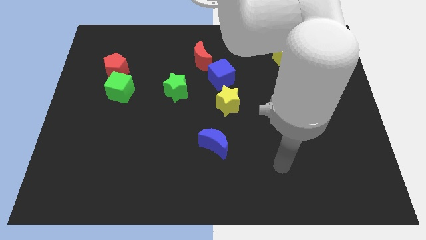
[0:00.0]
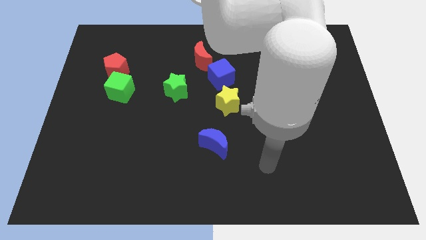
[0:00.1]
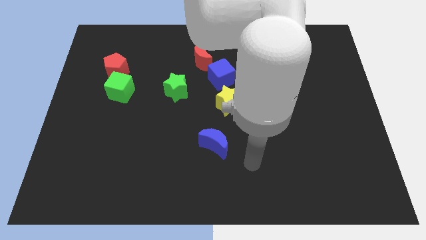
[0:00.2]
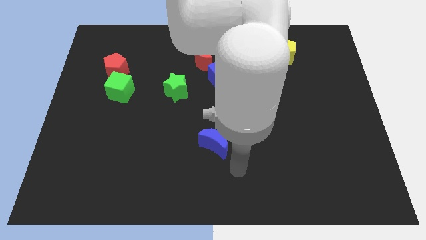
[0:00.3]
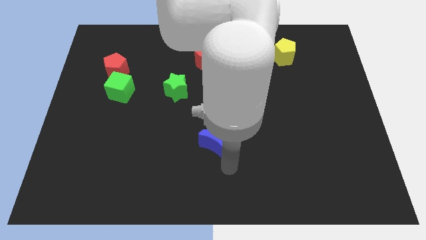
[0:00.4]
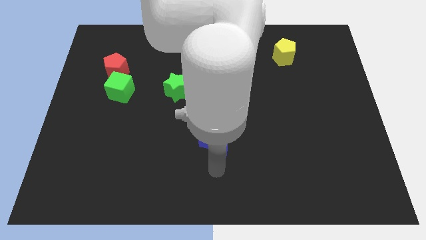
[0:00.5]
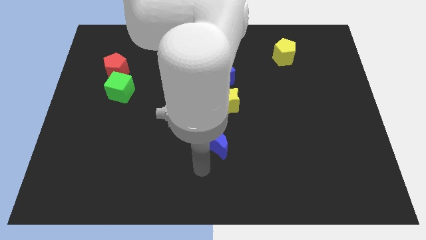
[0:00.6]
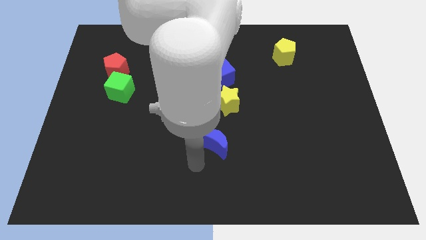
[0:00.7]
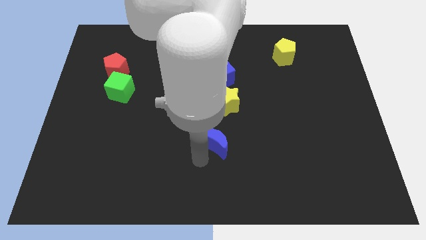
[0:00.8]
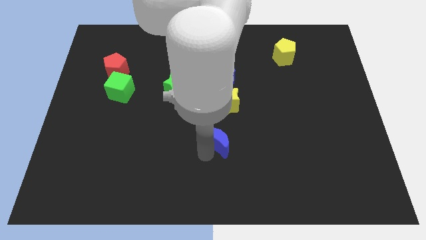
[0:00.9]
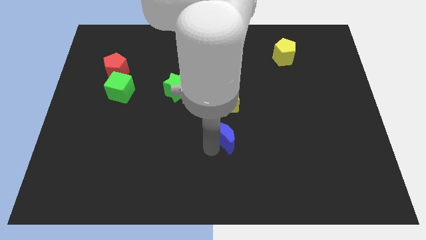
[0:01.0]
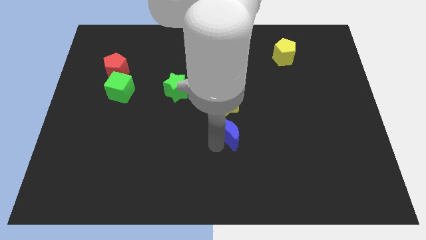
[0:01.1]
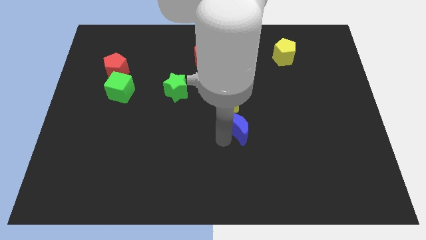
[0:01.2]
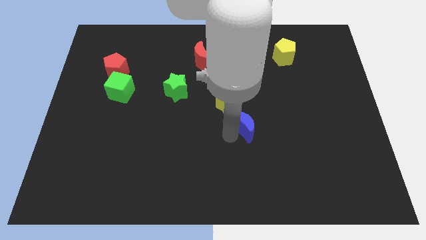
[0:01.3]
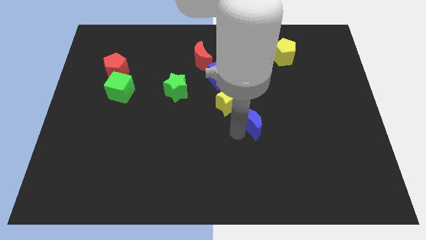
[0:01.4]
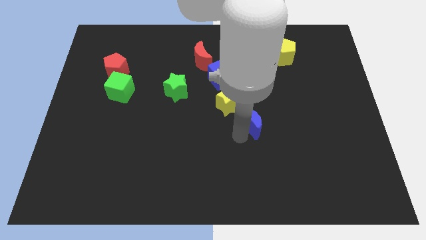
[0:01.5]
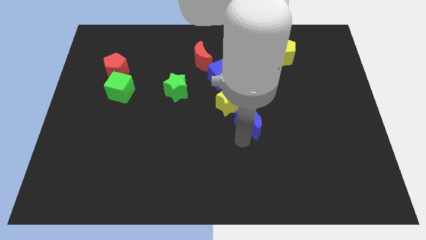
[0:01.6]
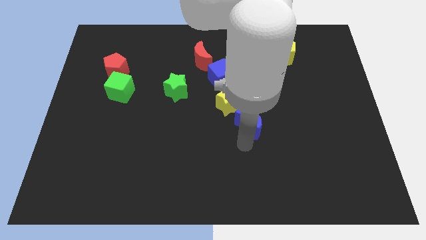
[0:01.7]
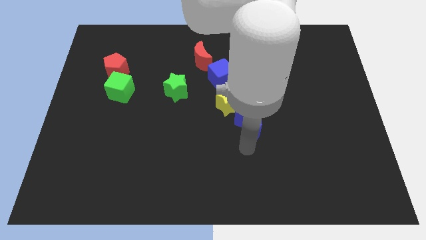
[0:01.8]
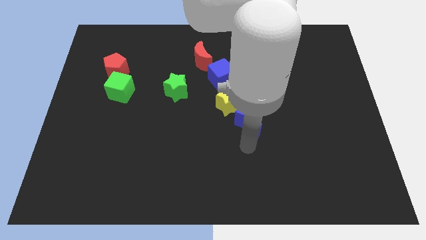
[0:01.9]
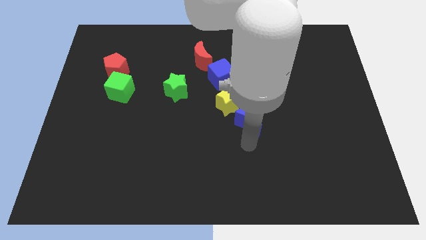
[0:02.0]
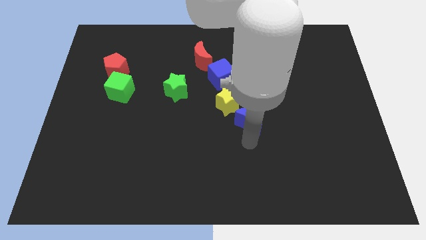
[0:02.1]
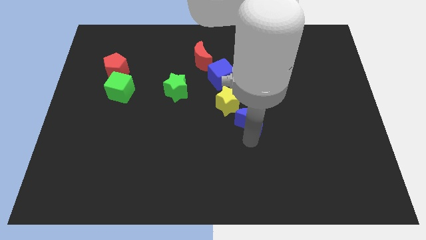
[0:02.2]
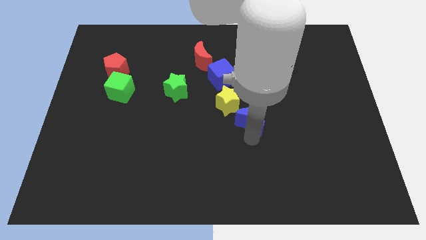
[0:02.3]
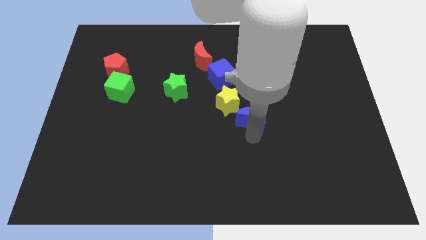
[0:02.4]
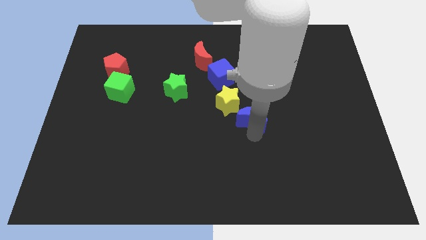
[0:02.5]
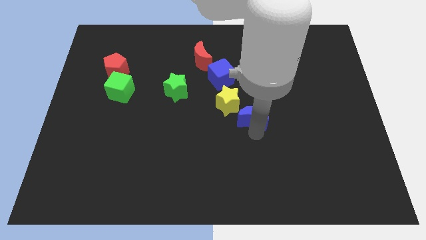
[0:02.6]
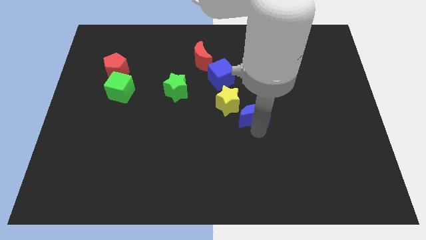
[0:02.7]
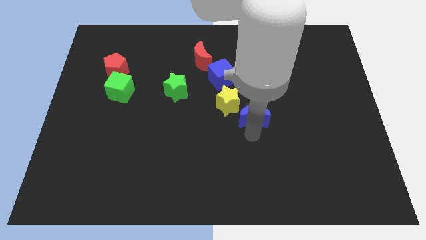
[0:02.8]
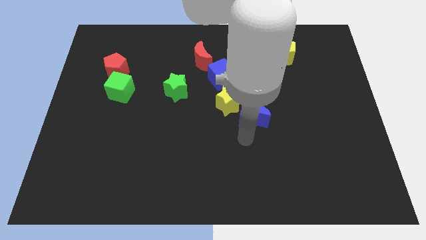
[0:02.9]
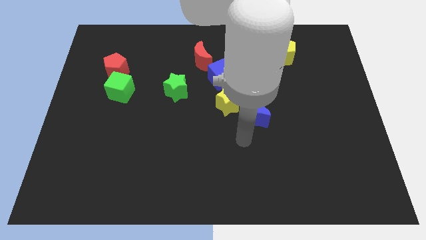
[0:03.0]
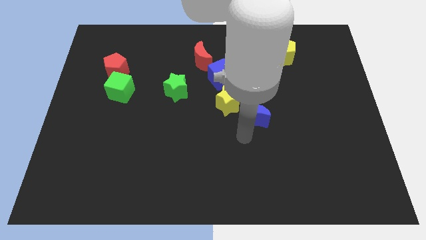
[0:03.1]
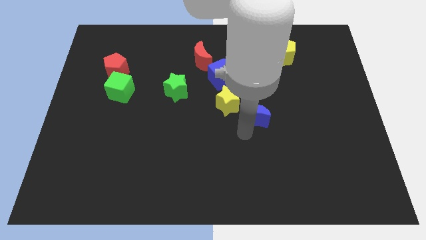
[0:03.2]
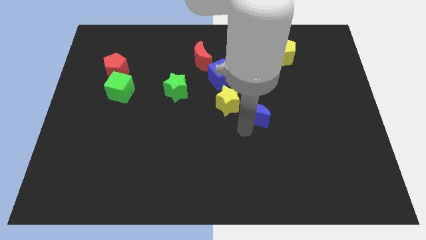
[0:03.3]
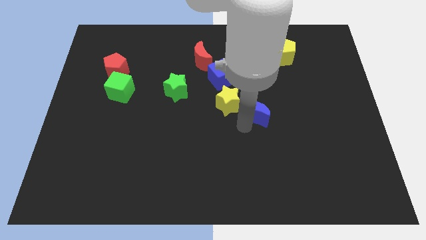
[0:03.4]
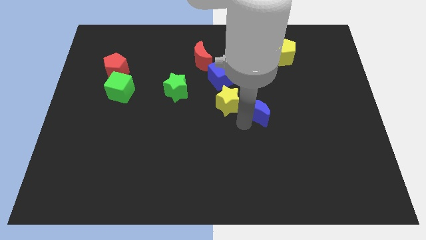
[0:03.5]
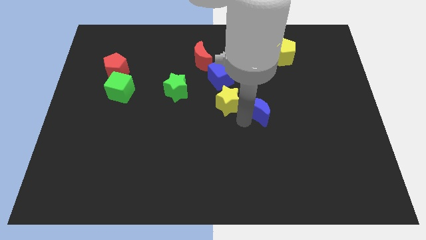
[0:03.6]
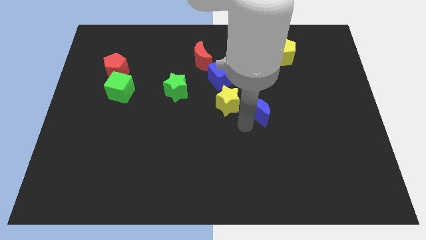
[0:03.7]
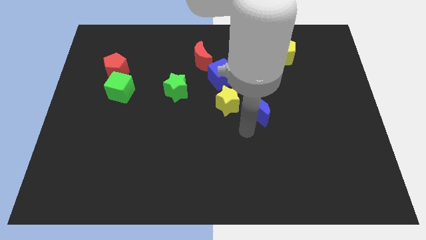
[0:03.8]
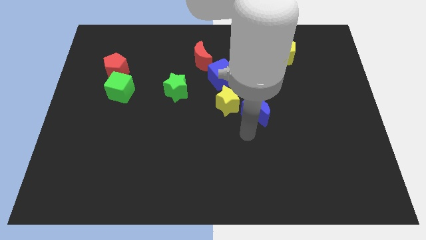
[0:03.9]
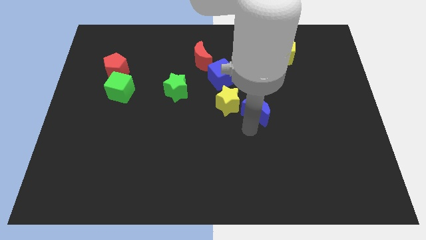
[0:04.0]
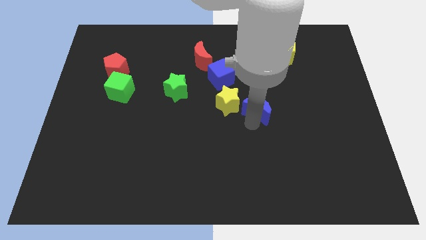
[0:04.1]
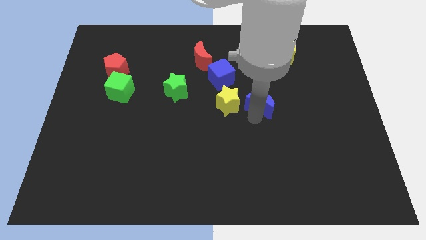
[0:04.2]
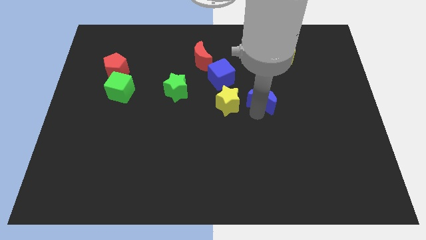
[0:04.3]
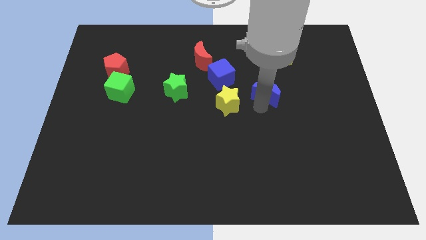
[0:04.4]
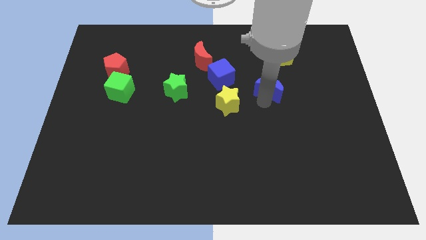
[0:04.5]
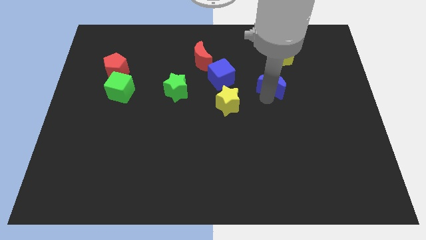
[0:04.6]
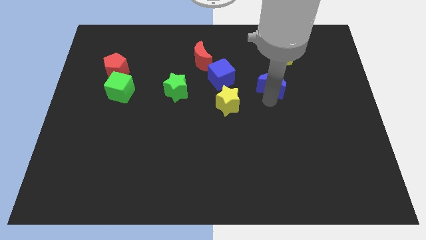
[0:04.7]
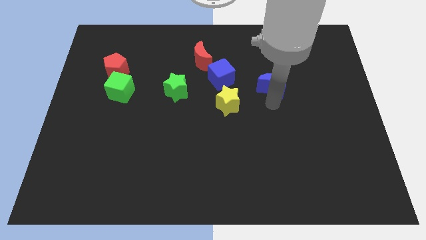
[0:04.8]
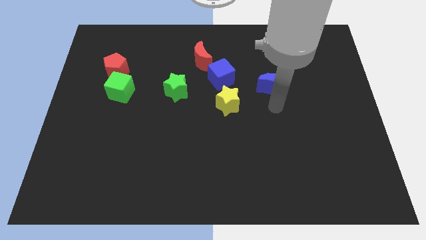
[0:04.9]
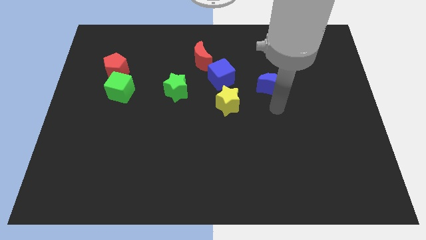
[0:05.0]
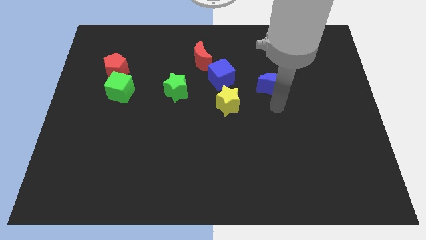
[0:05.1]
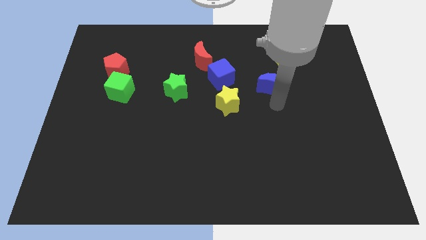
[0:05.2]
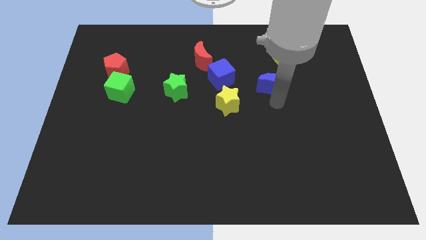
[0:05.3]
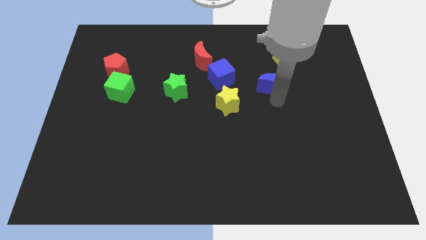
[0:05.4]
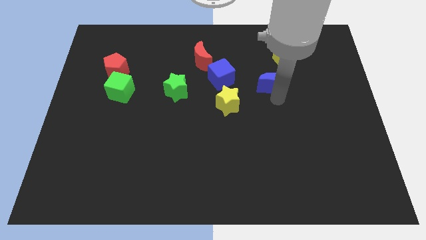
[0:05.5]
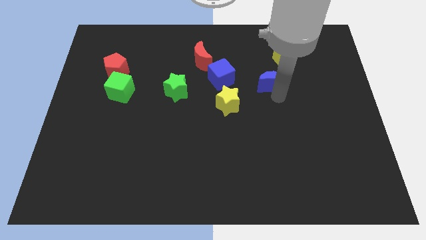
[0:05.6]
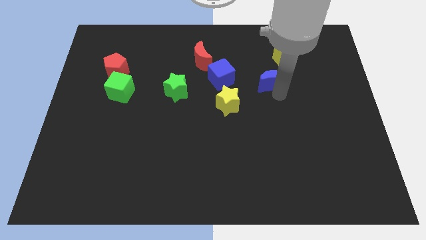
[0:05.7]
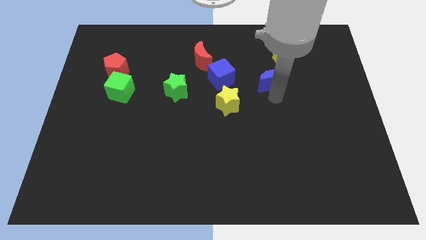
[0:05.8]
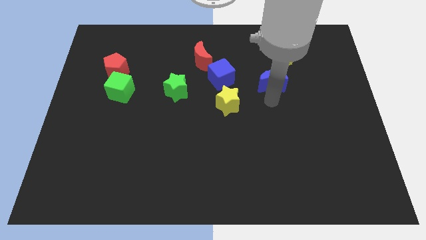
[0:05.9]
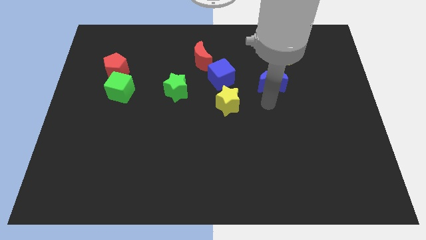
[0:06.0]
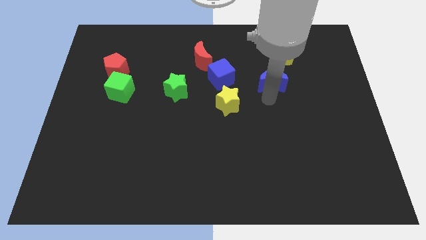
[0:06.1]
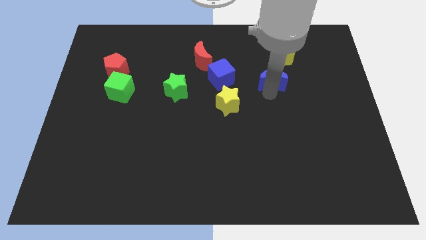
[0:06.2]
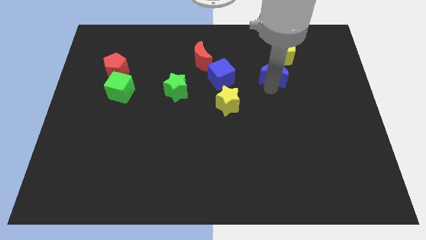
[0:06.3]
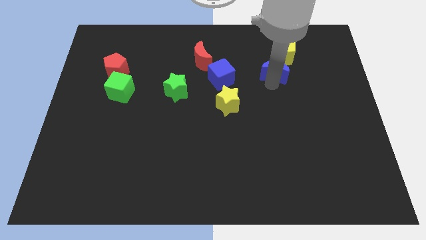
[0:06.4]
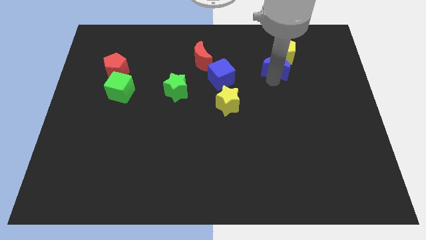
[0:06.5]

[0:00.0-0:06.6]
put the blue moon to the yellow pentagon

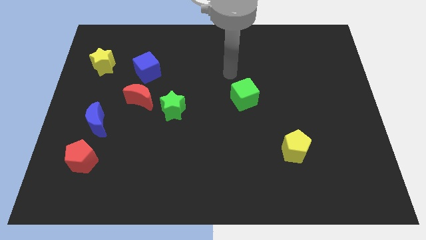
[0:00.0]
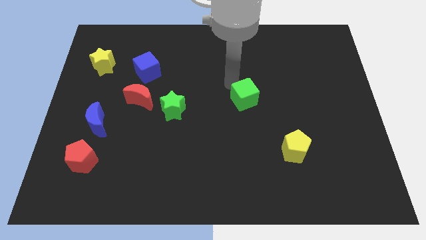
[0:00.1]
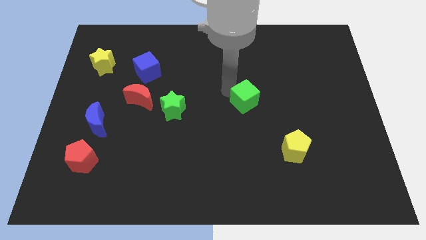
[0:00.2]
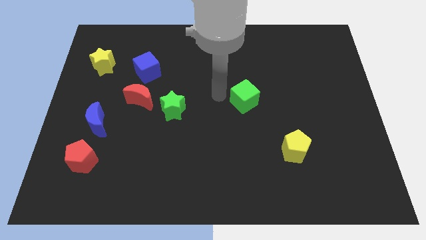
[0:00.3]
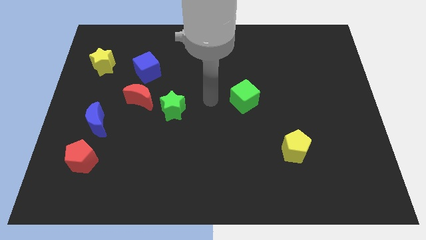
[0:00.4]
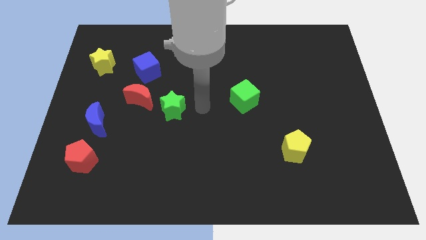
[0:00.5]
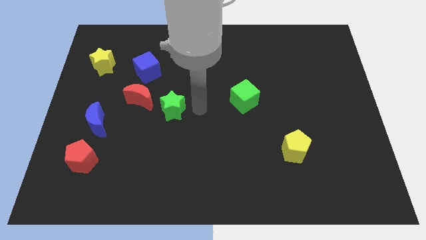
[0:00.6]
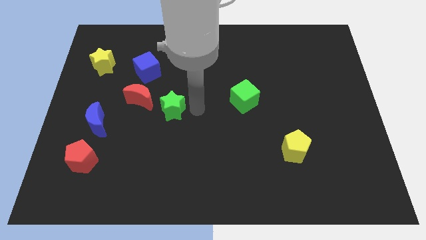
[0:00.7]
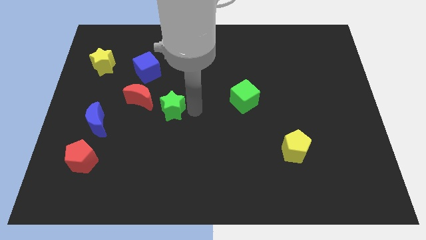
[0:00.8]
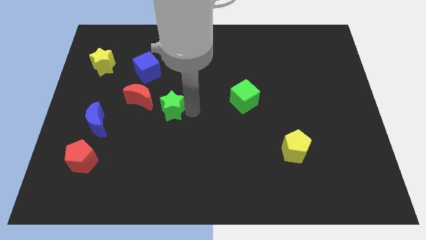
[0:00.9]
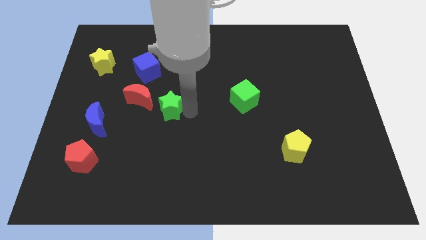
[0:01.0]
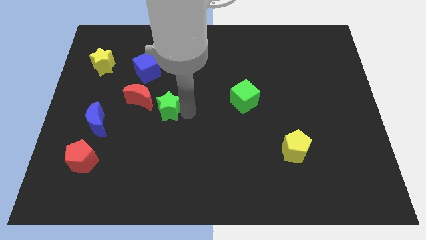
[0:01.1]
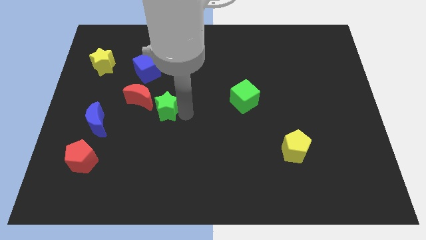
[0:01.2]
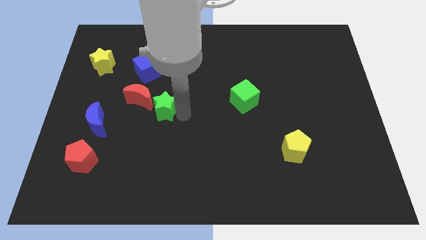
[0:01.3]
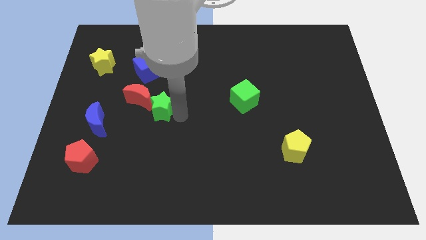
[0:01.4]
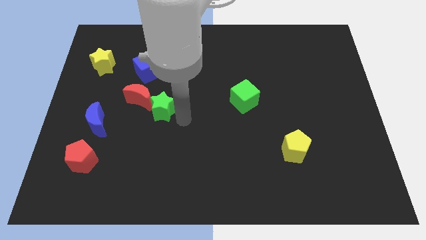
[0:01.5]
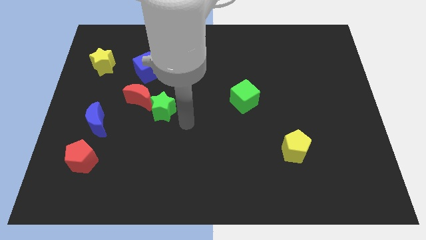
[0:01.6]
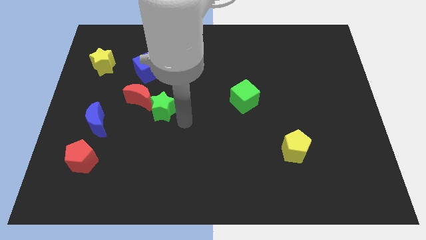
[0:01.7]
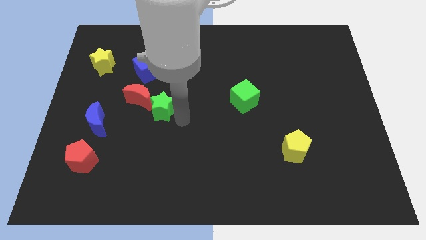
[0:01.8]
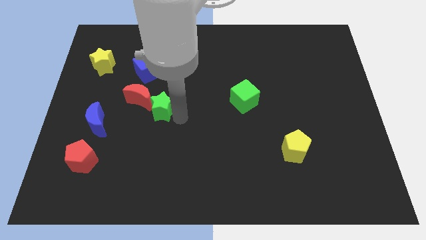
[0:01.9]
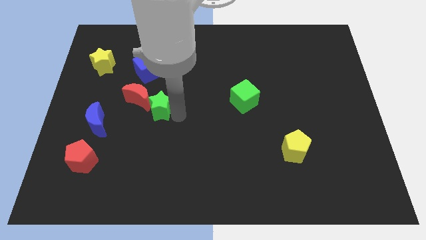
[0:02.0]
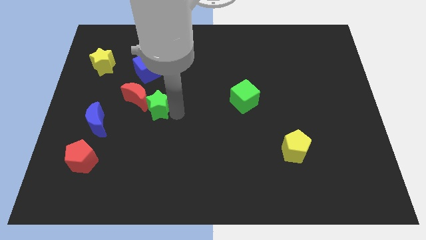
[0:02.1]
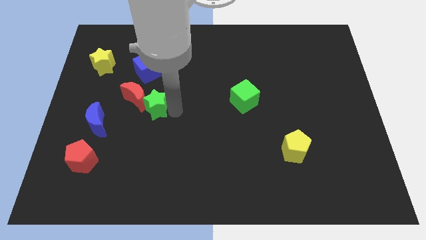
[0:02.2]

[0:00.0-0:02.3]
push the green star towards the red moon
